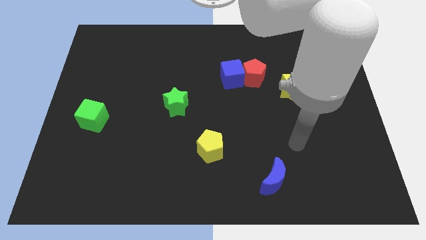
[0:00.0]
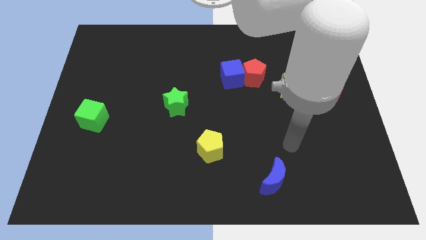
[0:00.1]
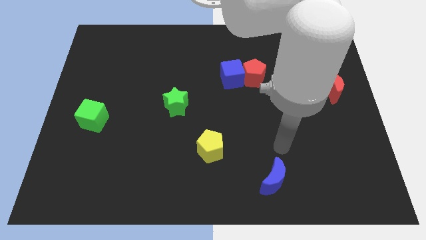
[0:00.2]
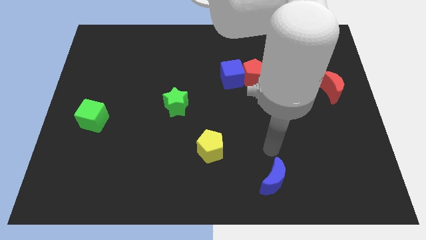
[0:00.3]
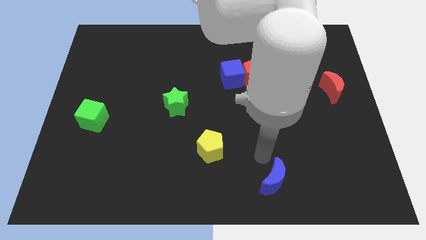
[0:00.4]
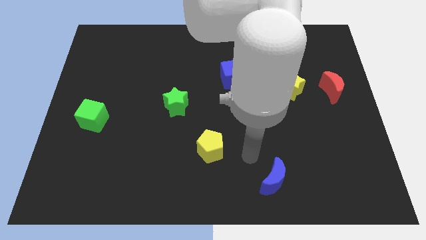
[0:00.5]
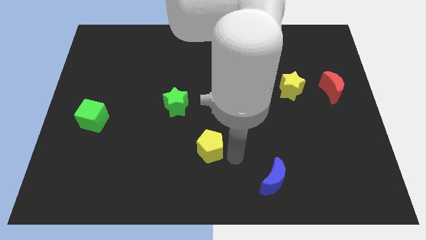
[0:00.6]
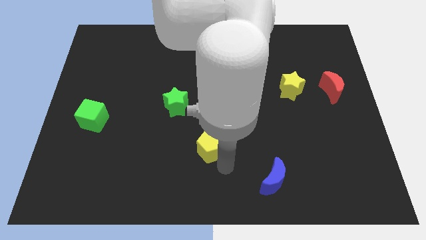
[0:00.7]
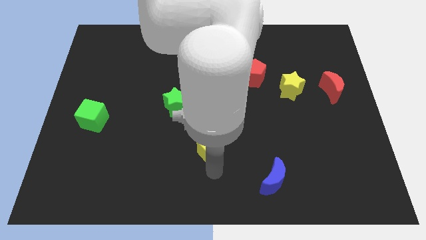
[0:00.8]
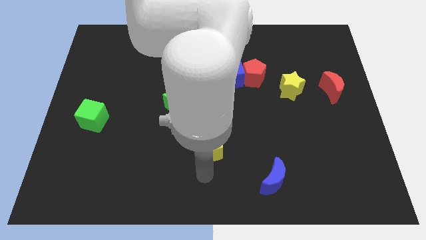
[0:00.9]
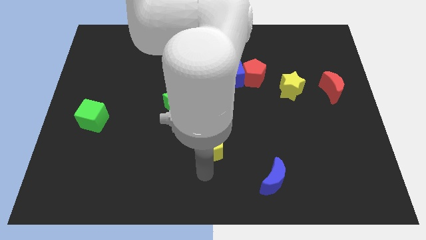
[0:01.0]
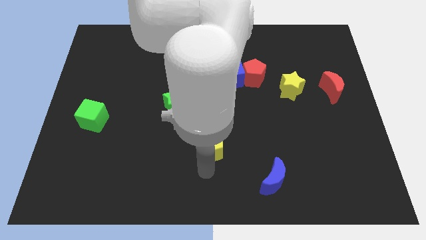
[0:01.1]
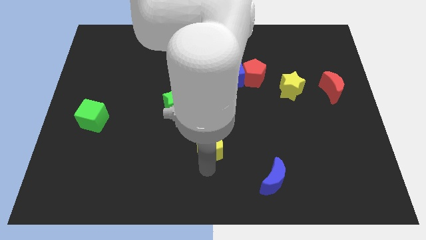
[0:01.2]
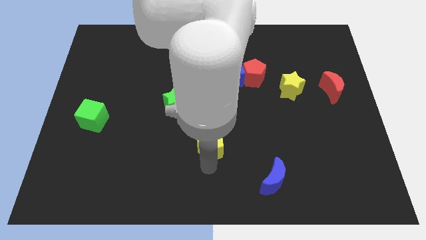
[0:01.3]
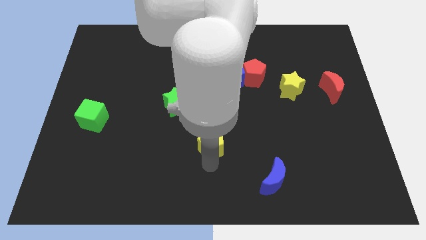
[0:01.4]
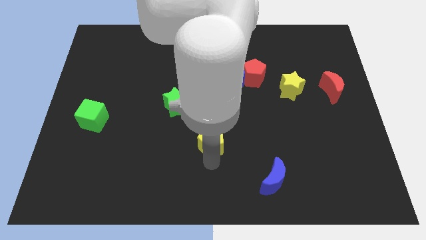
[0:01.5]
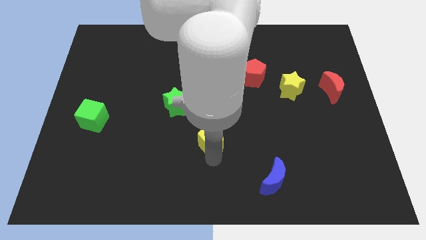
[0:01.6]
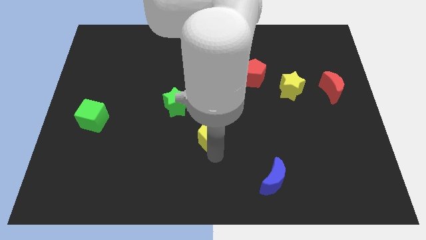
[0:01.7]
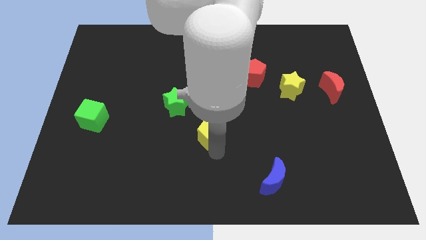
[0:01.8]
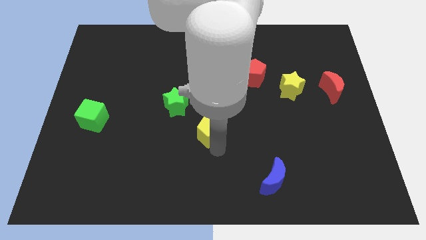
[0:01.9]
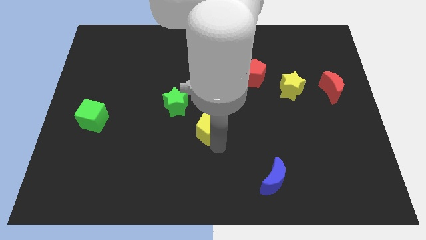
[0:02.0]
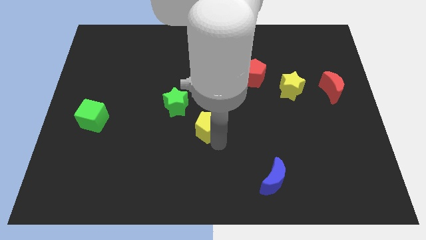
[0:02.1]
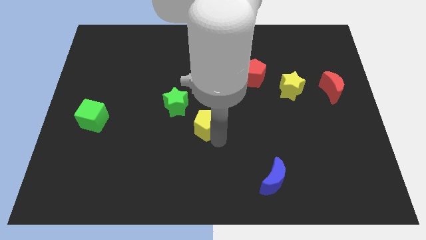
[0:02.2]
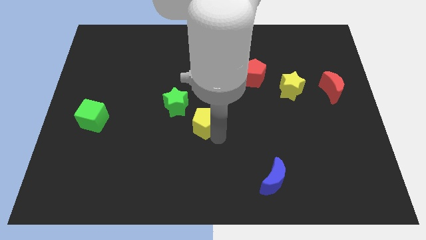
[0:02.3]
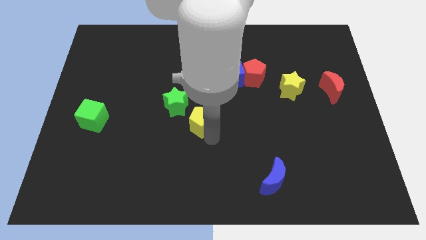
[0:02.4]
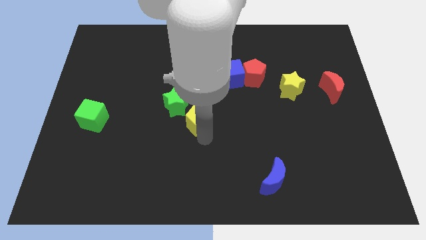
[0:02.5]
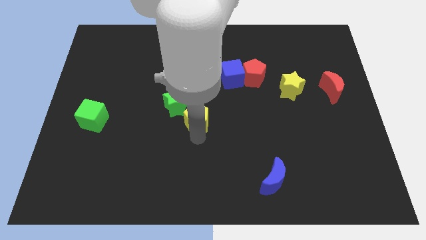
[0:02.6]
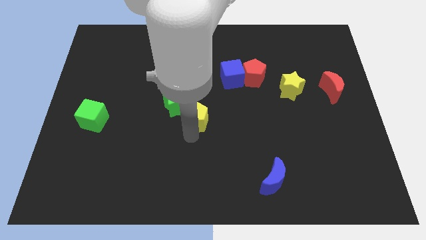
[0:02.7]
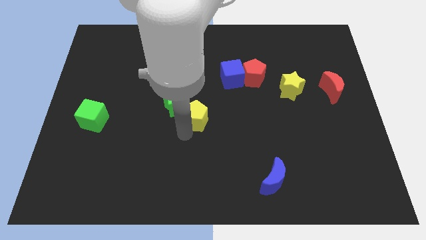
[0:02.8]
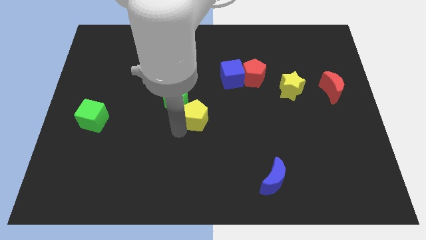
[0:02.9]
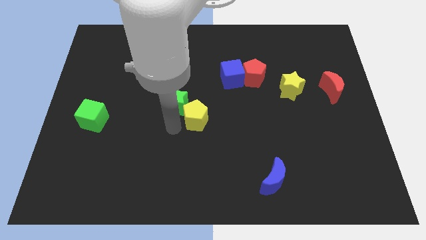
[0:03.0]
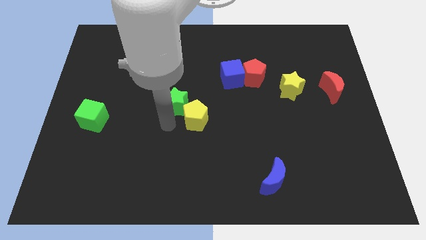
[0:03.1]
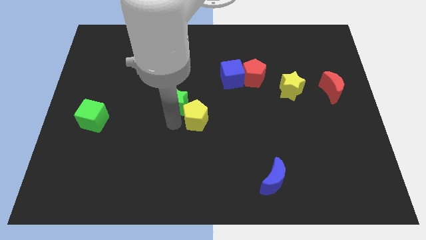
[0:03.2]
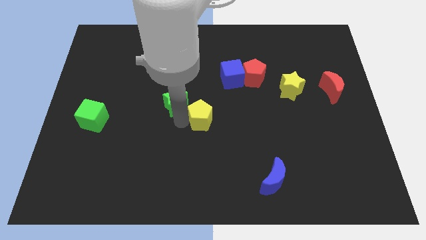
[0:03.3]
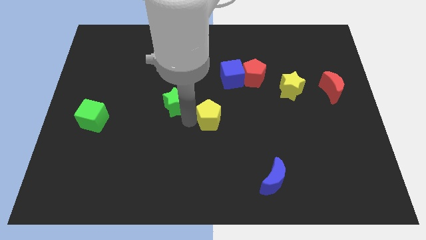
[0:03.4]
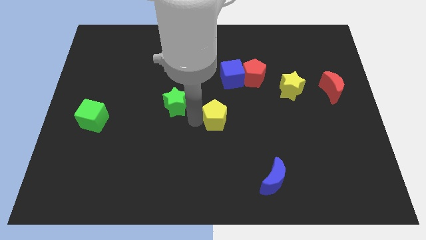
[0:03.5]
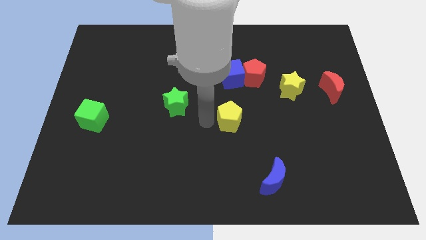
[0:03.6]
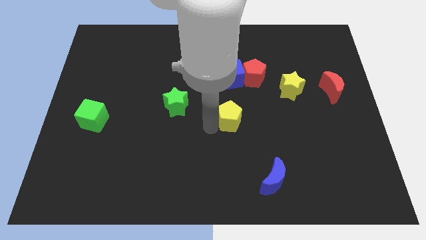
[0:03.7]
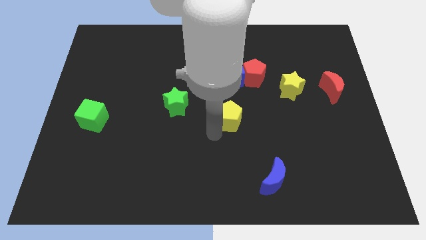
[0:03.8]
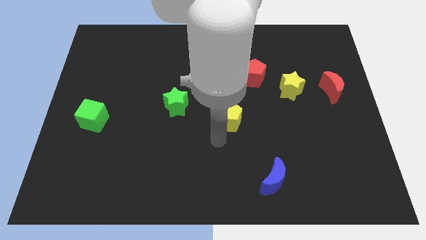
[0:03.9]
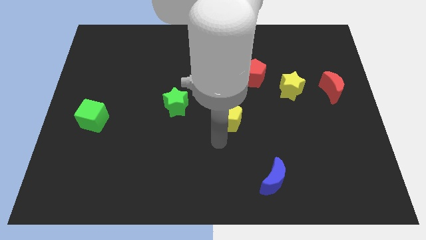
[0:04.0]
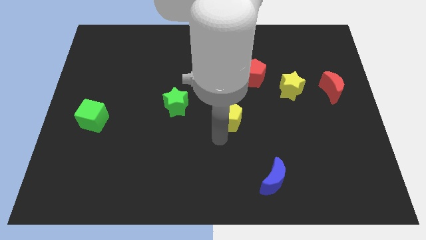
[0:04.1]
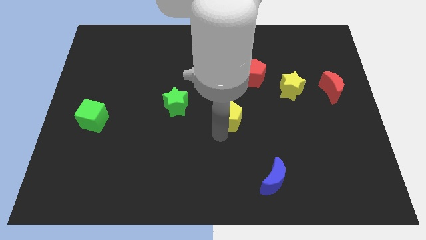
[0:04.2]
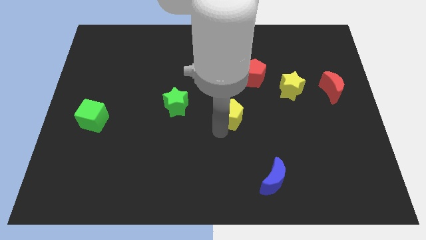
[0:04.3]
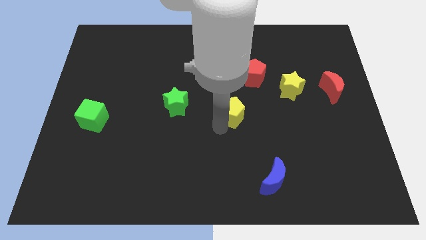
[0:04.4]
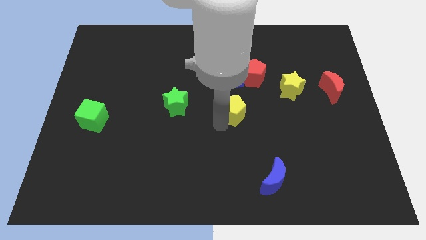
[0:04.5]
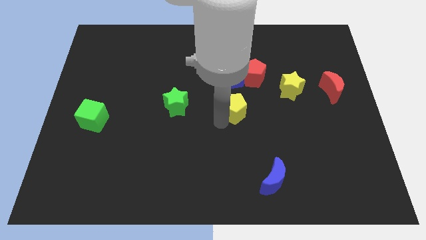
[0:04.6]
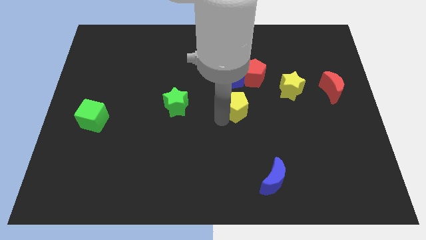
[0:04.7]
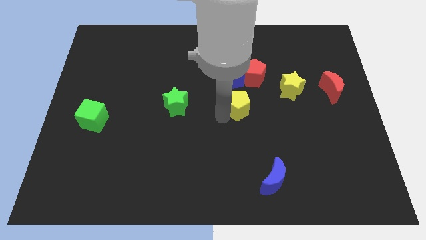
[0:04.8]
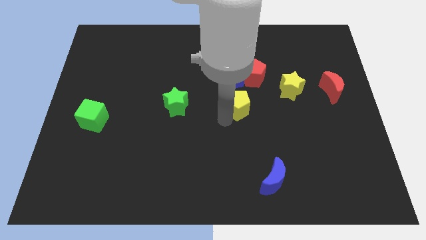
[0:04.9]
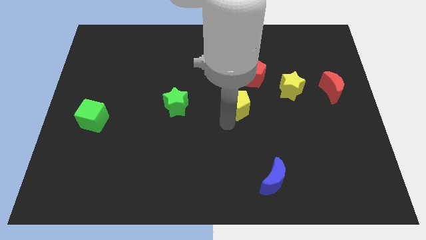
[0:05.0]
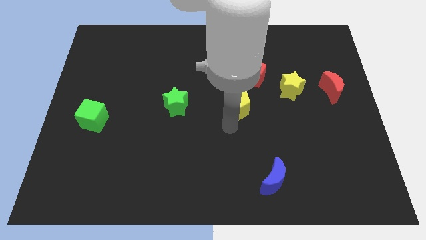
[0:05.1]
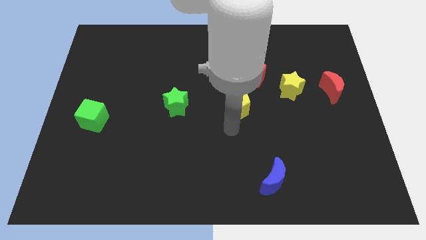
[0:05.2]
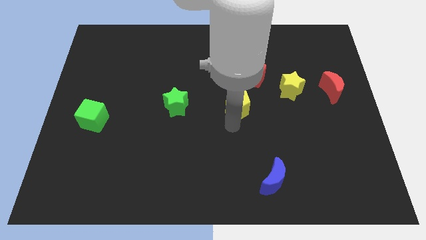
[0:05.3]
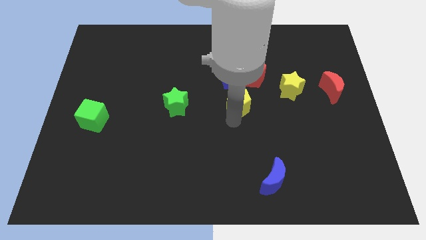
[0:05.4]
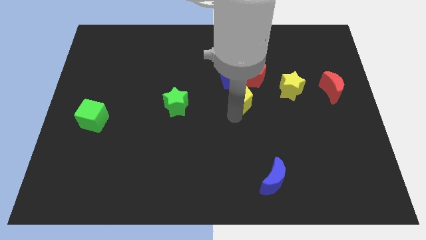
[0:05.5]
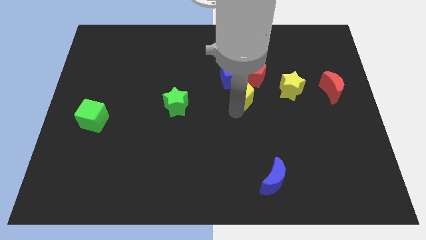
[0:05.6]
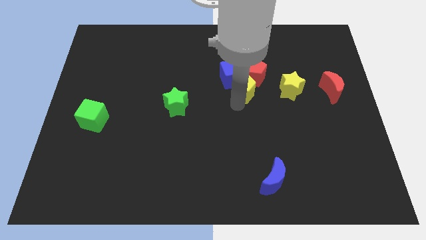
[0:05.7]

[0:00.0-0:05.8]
put the yellow pentagon to the red pentagon

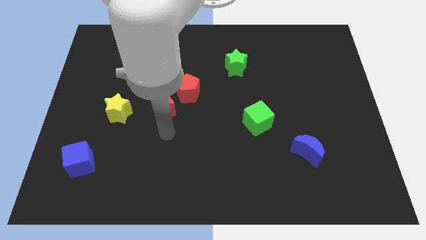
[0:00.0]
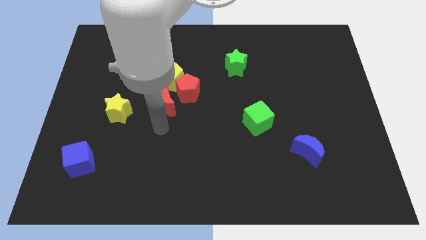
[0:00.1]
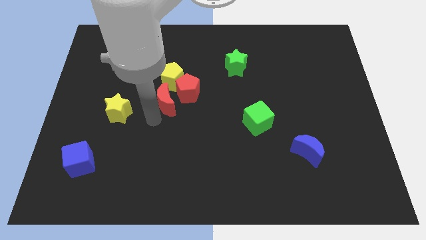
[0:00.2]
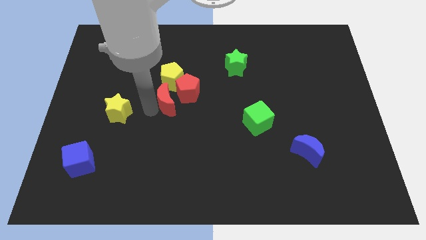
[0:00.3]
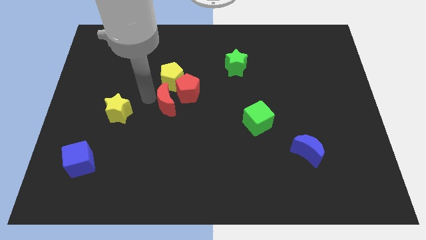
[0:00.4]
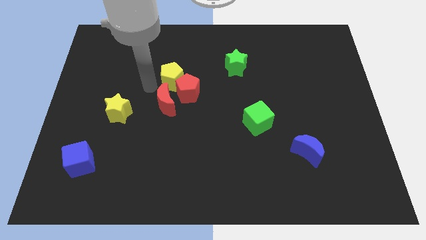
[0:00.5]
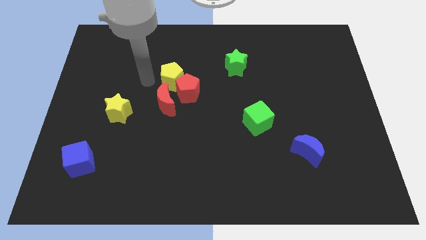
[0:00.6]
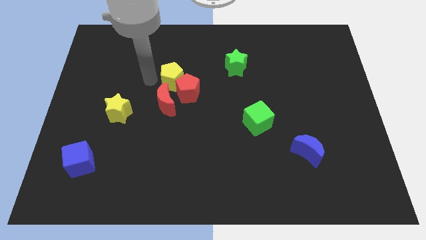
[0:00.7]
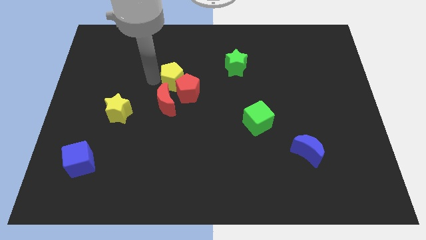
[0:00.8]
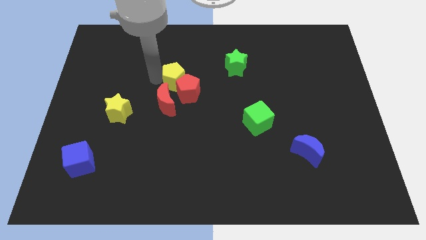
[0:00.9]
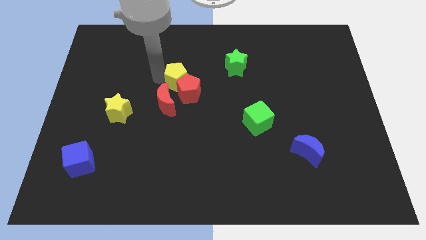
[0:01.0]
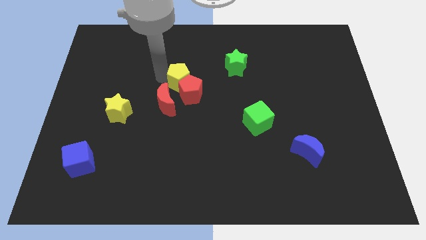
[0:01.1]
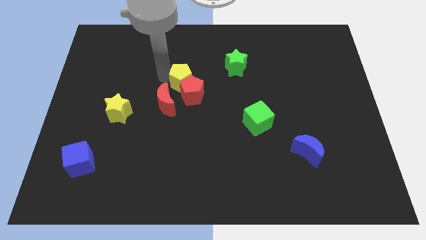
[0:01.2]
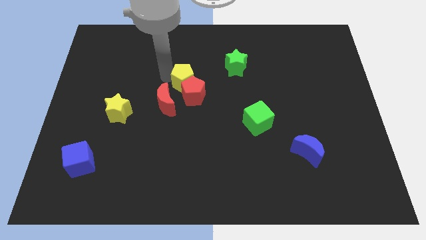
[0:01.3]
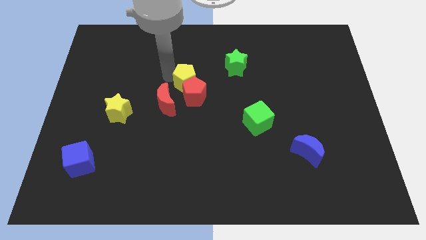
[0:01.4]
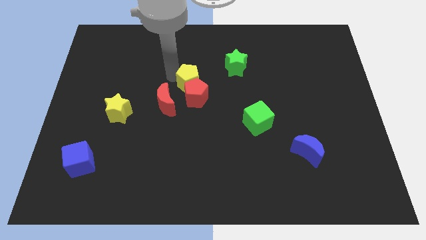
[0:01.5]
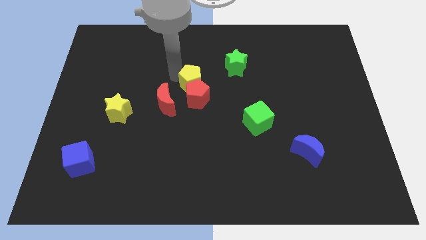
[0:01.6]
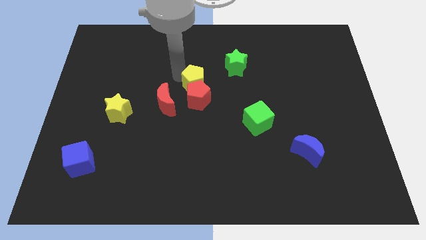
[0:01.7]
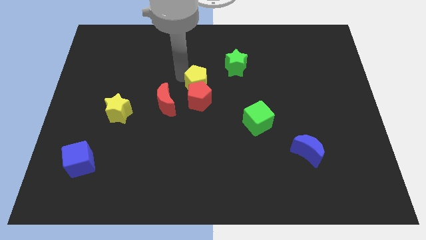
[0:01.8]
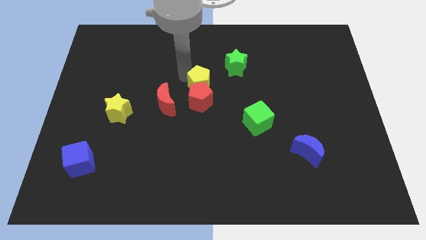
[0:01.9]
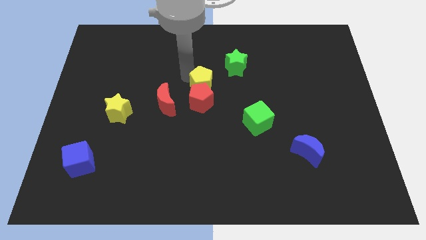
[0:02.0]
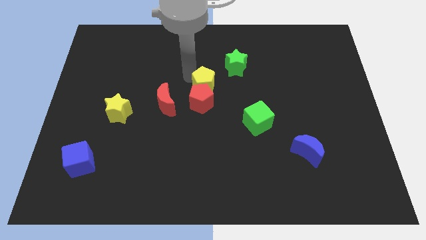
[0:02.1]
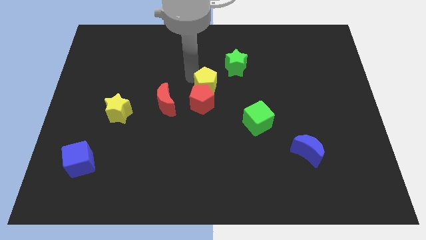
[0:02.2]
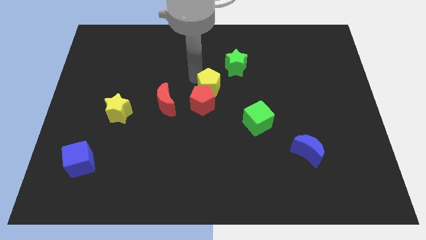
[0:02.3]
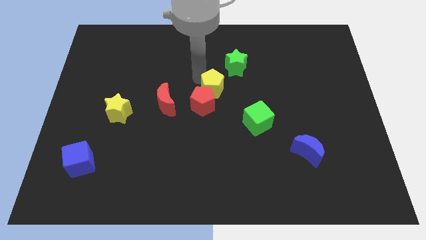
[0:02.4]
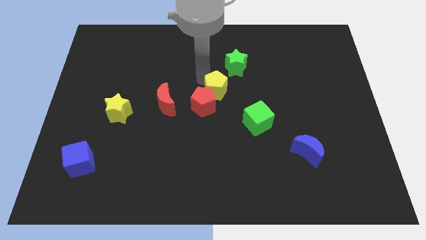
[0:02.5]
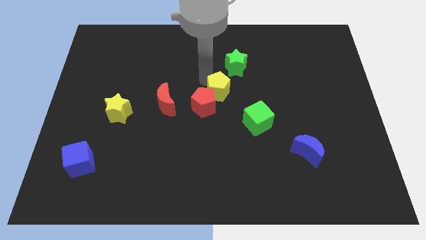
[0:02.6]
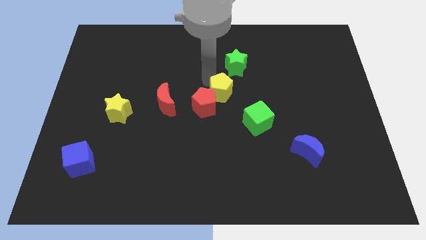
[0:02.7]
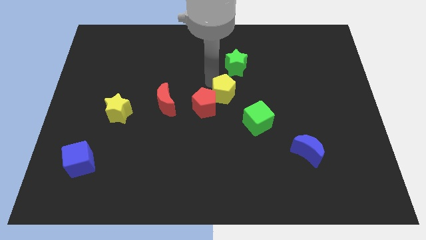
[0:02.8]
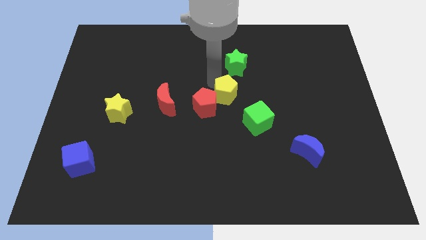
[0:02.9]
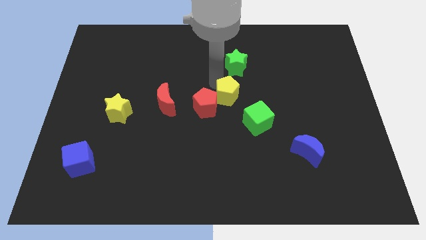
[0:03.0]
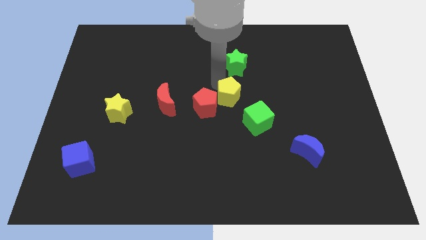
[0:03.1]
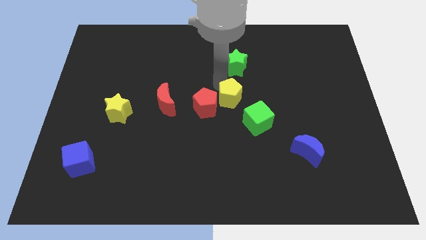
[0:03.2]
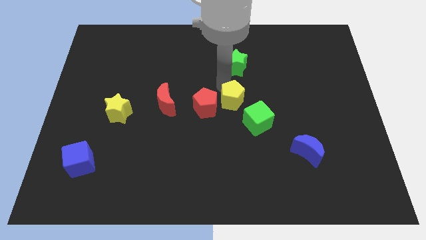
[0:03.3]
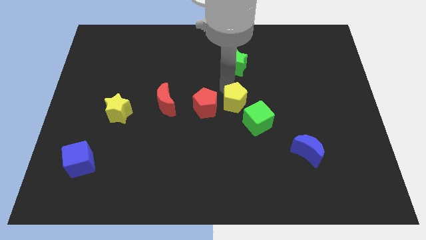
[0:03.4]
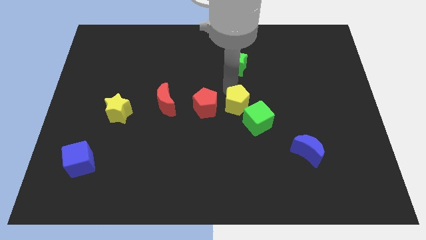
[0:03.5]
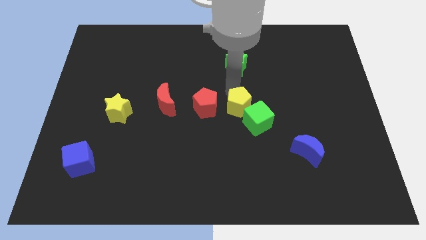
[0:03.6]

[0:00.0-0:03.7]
push the yellow pentagon towards the green cube
